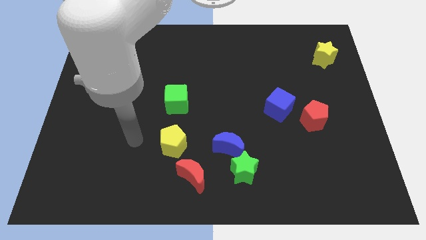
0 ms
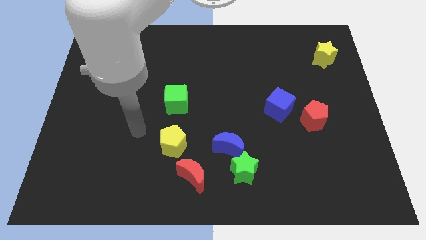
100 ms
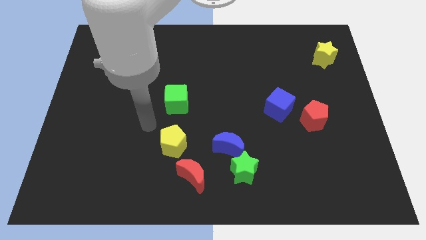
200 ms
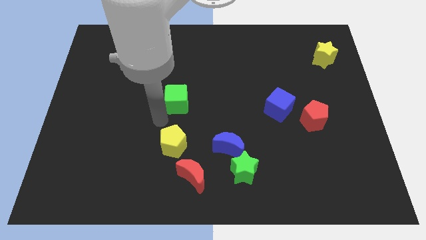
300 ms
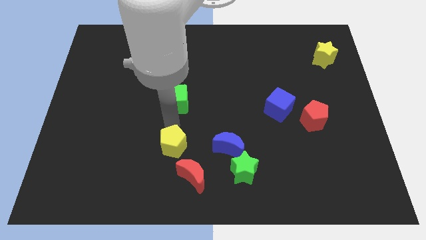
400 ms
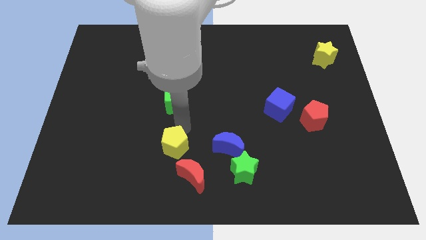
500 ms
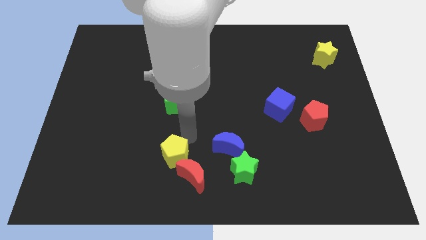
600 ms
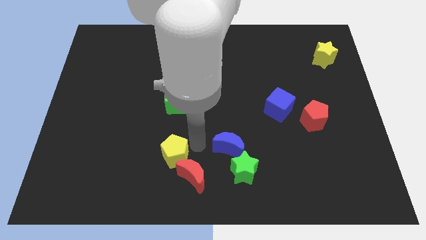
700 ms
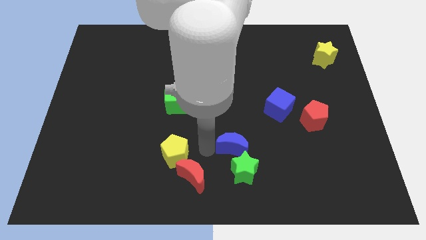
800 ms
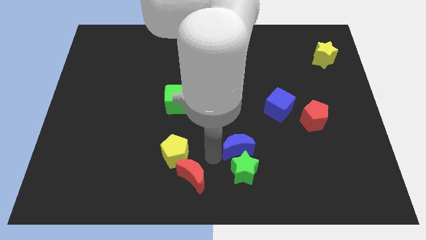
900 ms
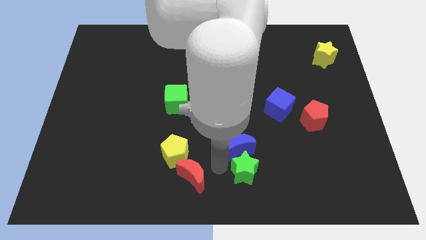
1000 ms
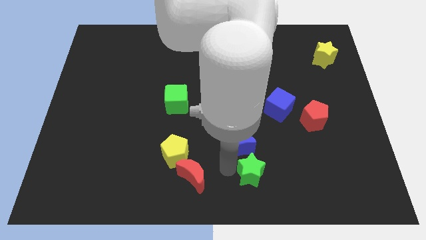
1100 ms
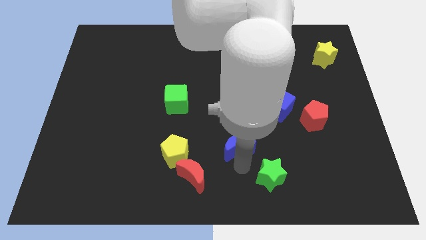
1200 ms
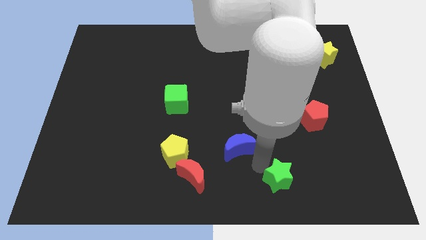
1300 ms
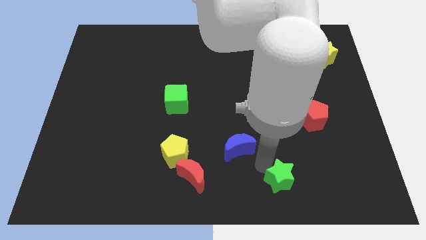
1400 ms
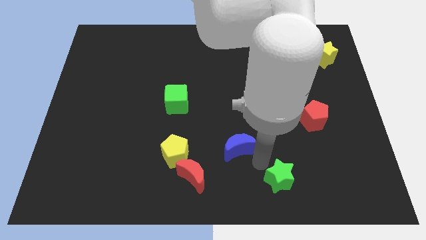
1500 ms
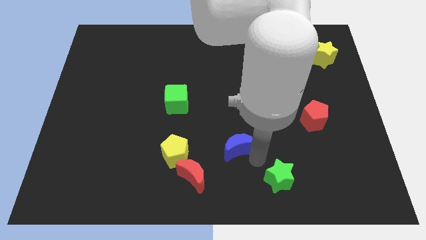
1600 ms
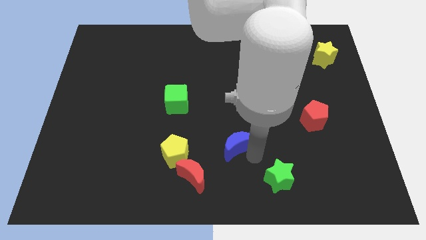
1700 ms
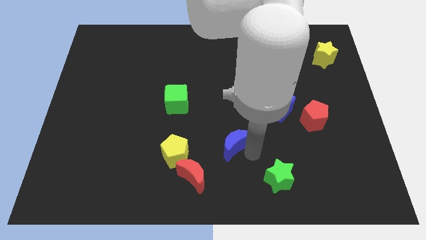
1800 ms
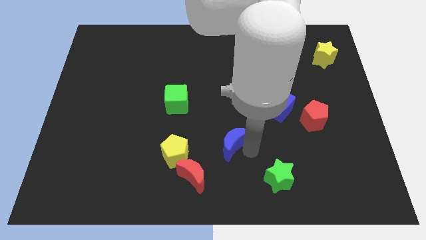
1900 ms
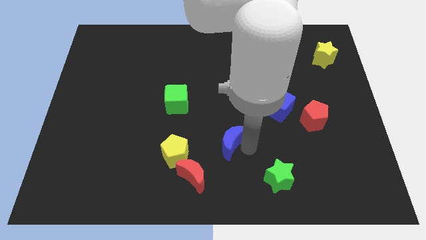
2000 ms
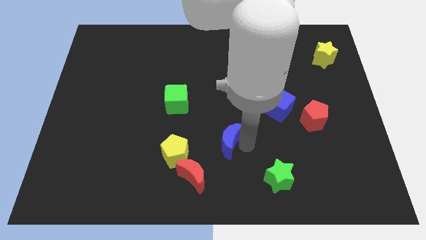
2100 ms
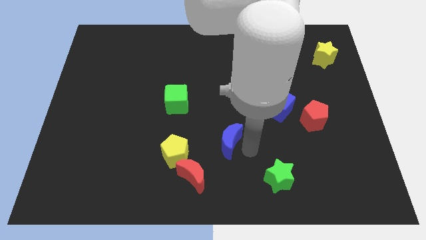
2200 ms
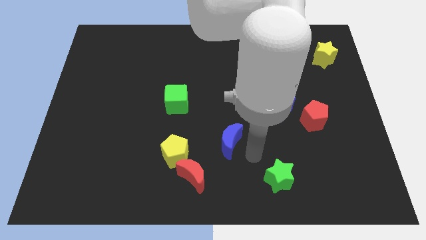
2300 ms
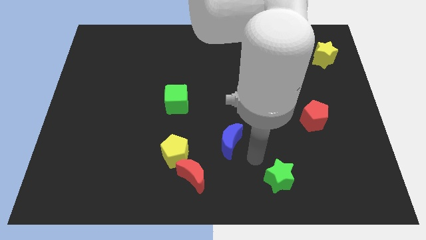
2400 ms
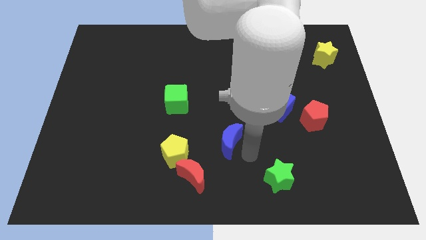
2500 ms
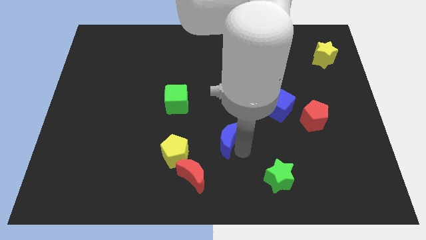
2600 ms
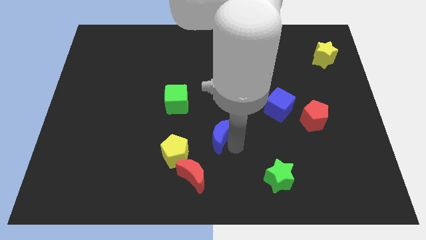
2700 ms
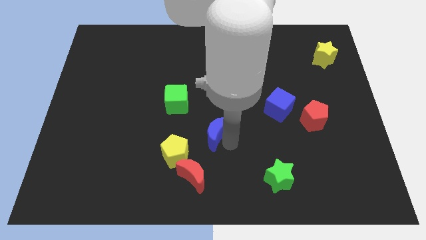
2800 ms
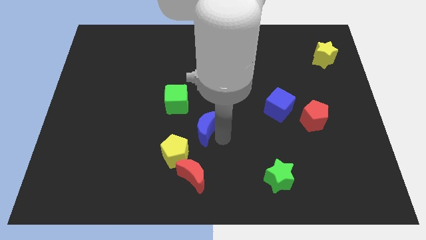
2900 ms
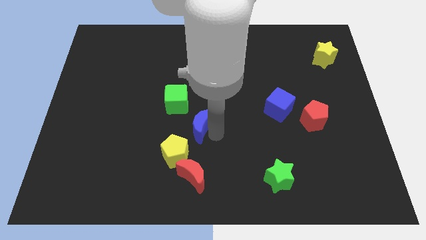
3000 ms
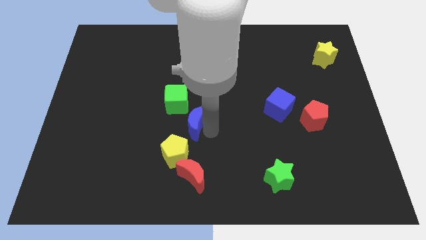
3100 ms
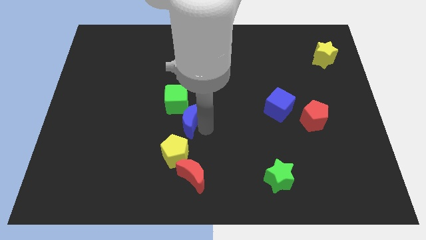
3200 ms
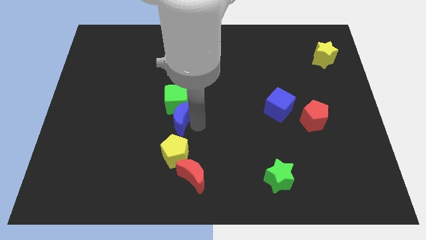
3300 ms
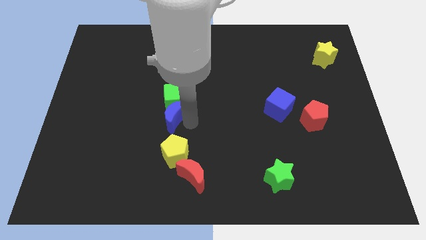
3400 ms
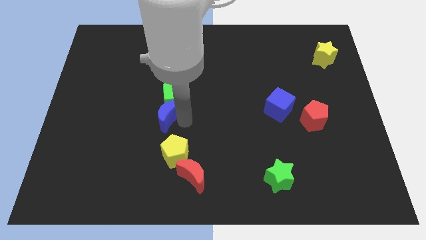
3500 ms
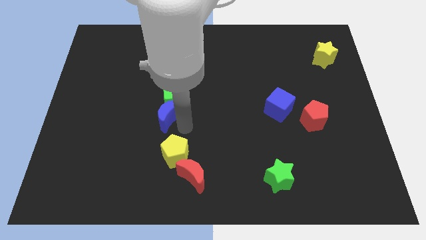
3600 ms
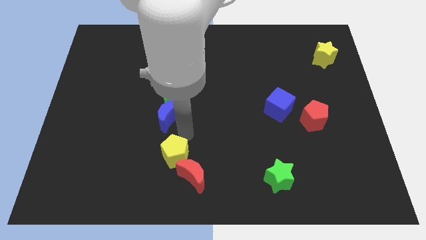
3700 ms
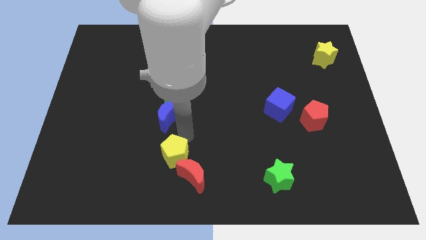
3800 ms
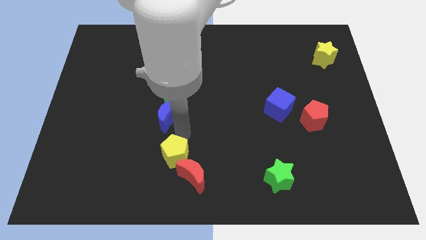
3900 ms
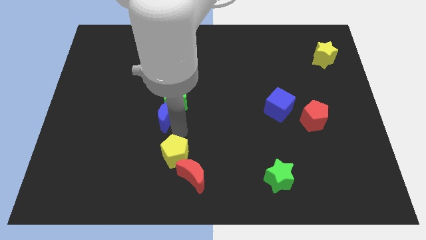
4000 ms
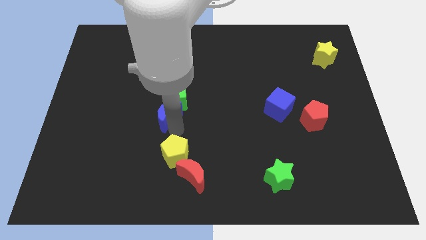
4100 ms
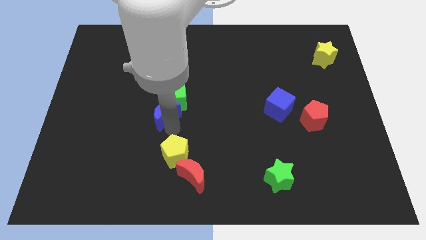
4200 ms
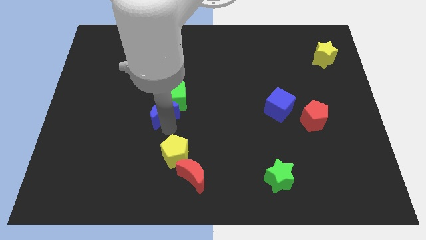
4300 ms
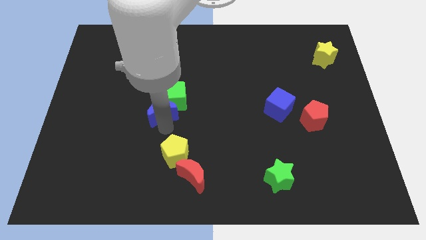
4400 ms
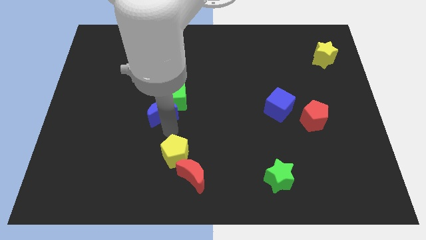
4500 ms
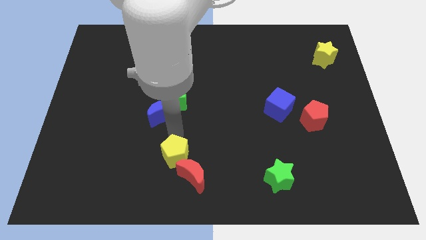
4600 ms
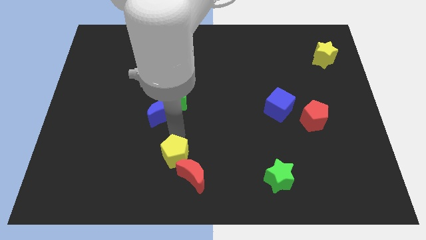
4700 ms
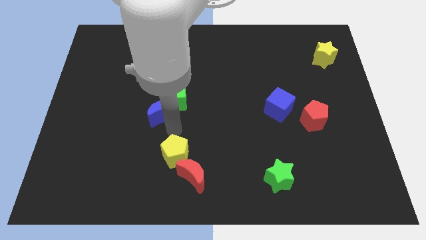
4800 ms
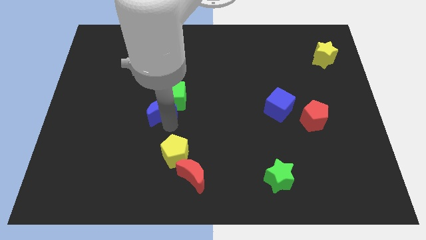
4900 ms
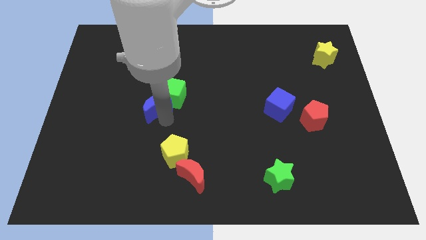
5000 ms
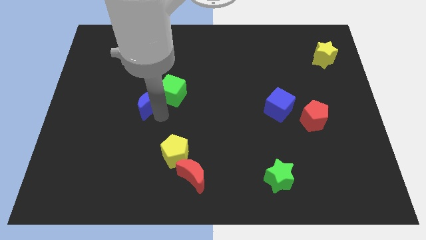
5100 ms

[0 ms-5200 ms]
push the blue moon diagonally up and left

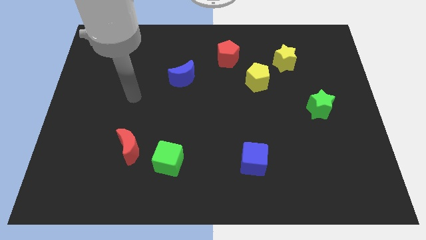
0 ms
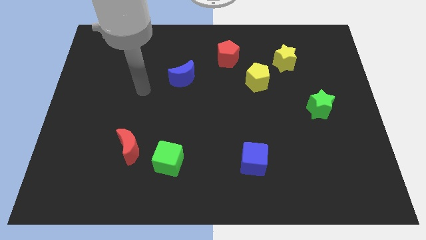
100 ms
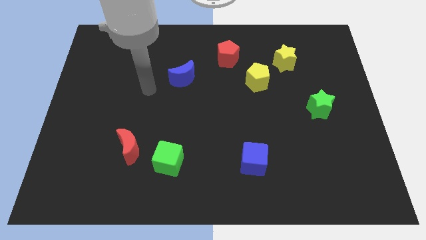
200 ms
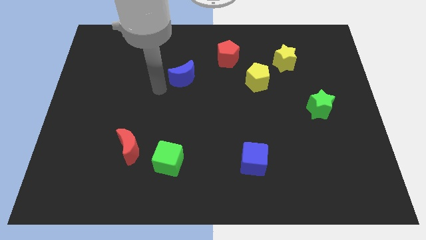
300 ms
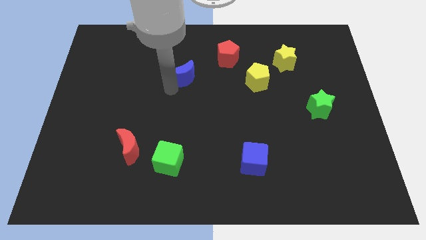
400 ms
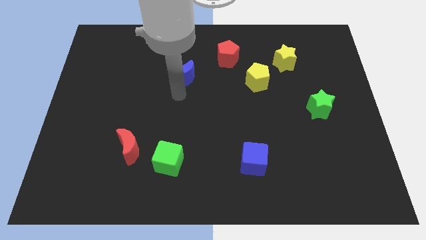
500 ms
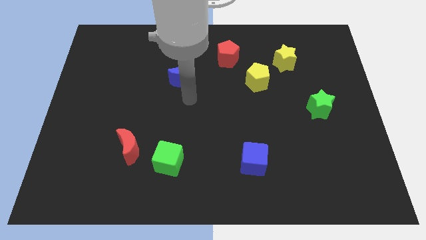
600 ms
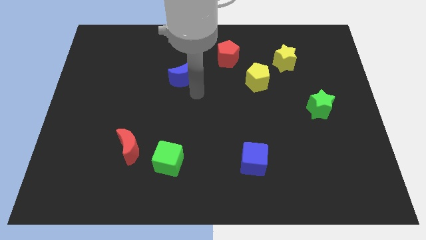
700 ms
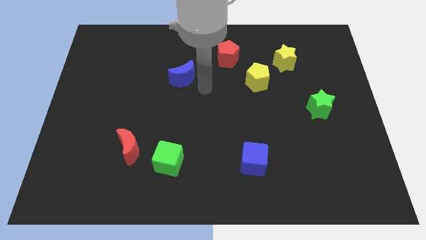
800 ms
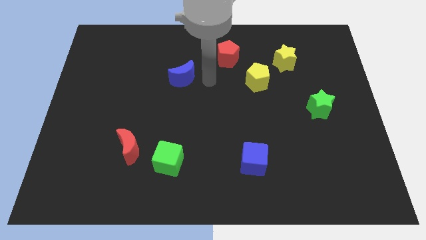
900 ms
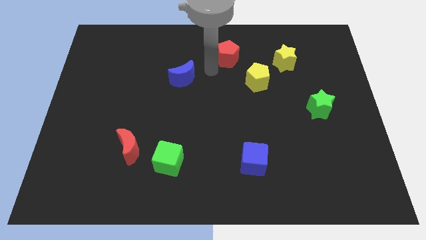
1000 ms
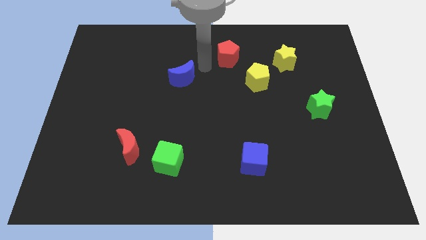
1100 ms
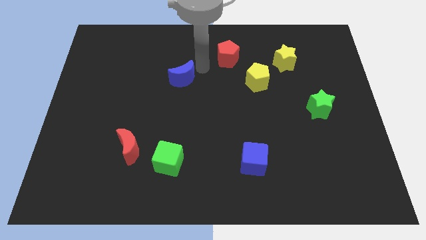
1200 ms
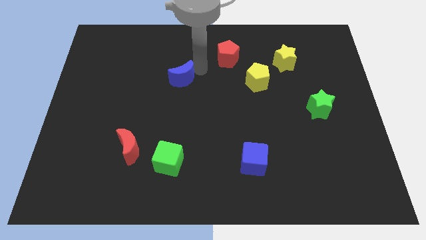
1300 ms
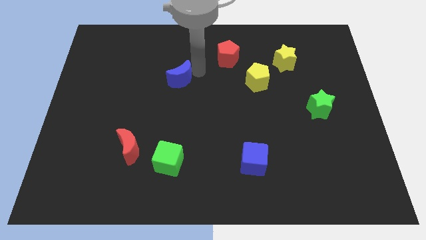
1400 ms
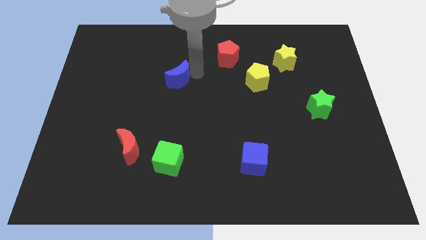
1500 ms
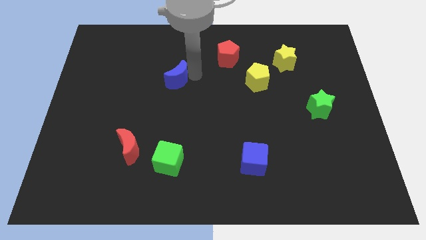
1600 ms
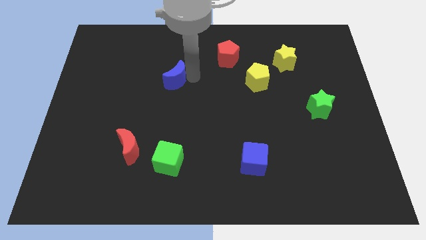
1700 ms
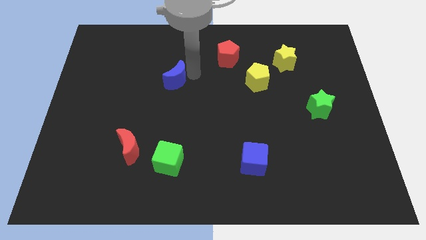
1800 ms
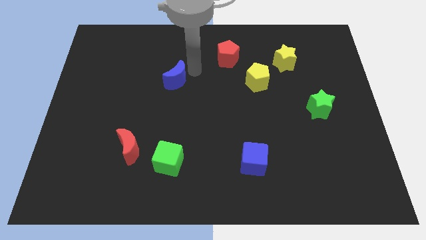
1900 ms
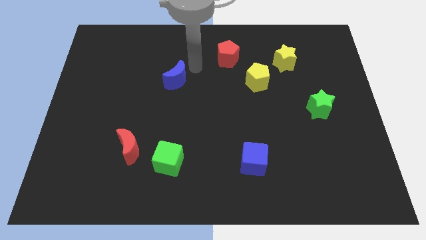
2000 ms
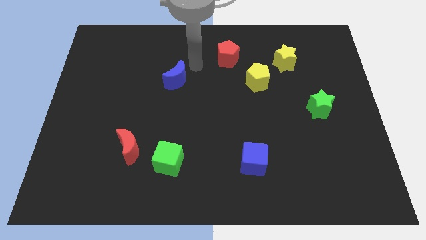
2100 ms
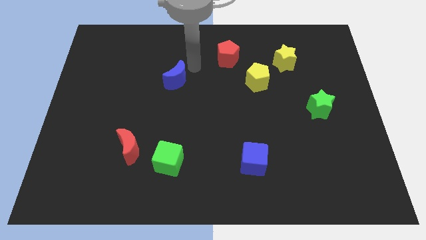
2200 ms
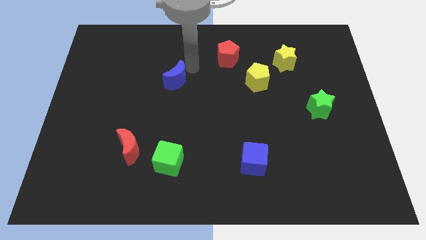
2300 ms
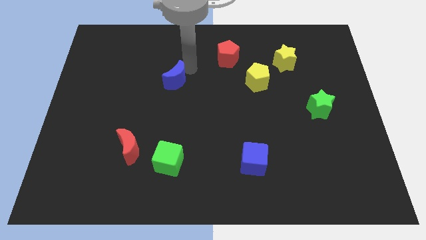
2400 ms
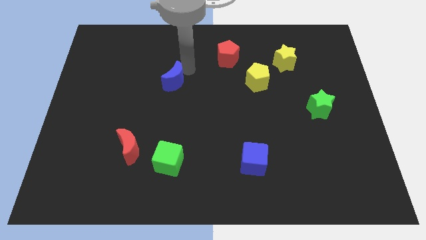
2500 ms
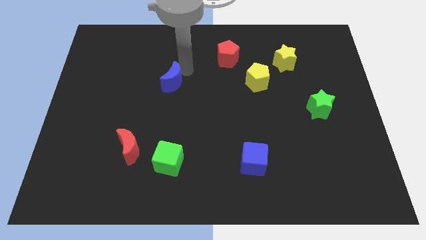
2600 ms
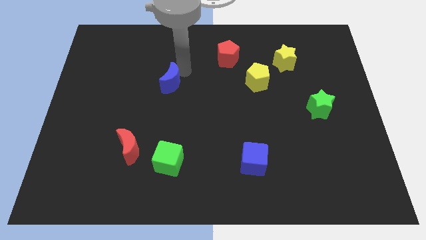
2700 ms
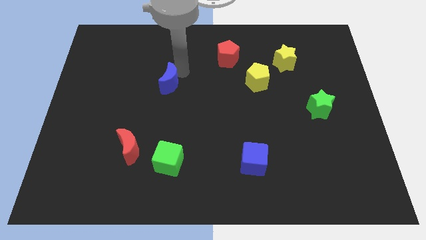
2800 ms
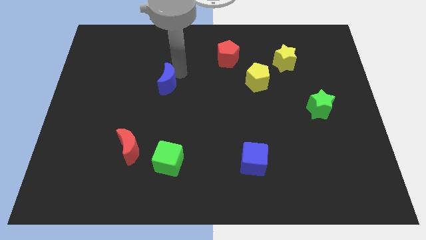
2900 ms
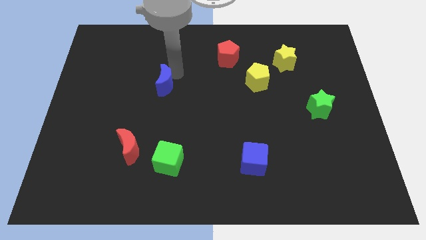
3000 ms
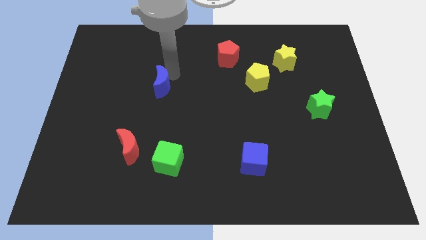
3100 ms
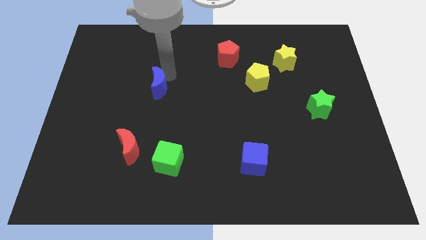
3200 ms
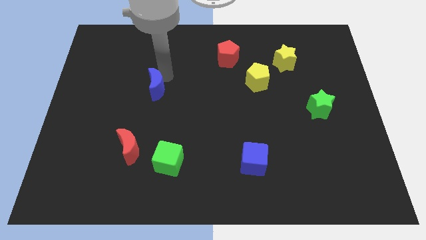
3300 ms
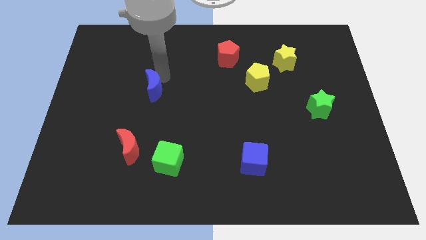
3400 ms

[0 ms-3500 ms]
push the blue moon a little down and left diagonally
